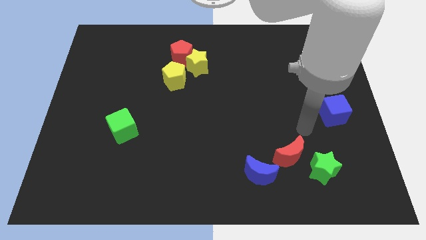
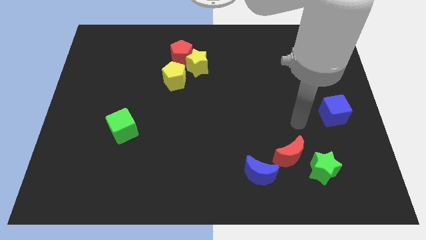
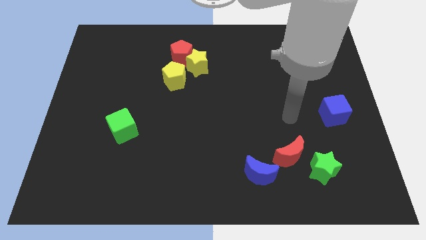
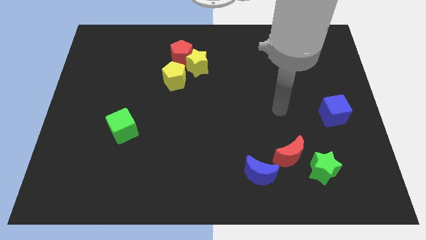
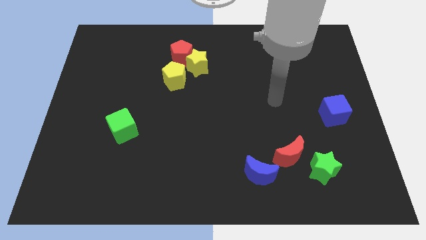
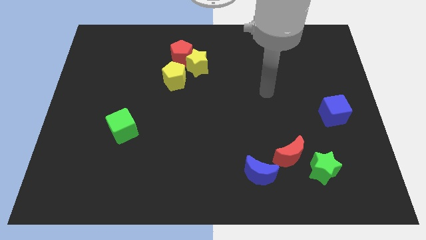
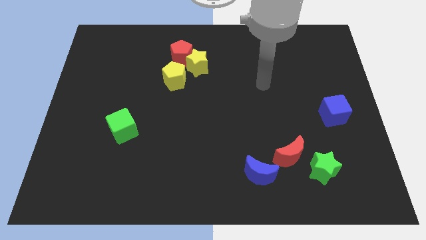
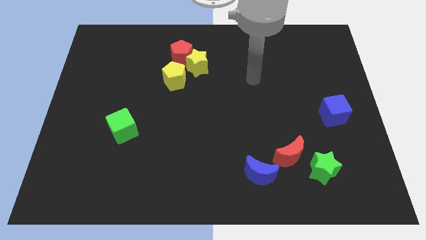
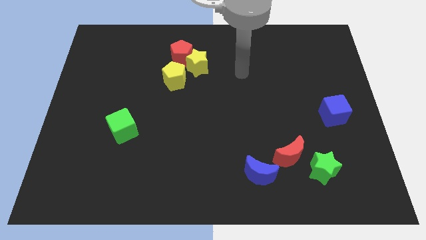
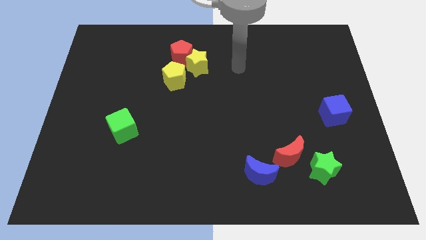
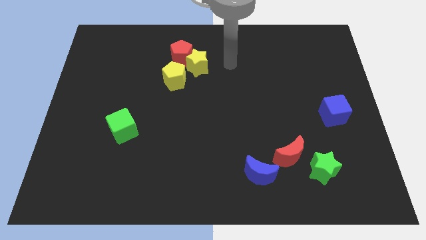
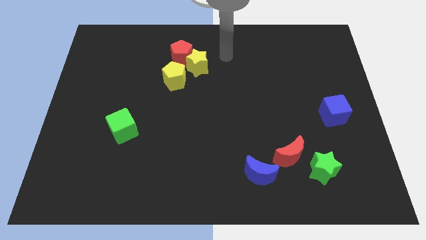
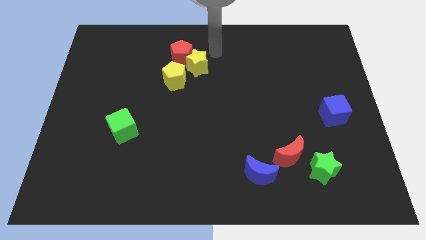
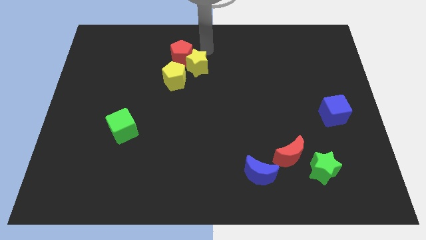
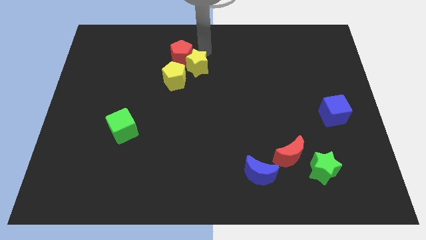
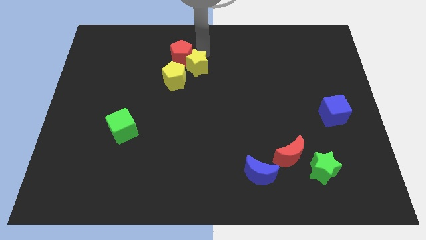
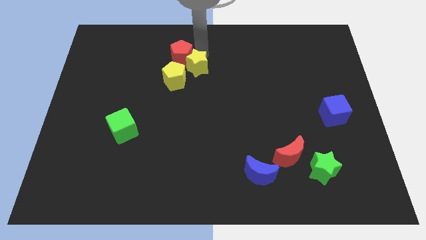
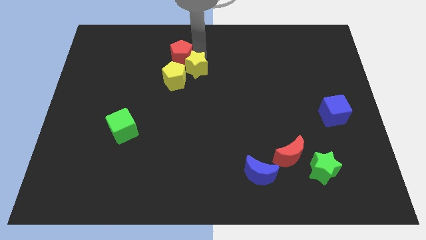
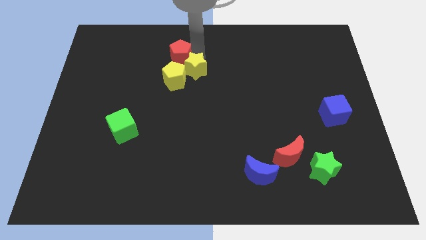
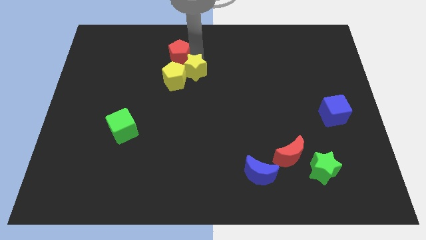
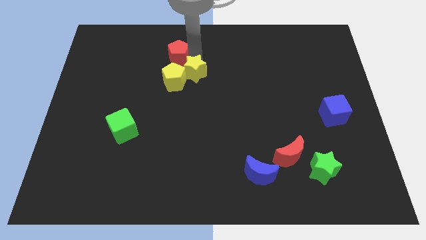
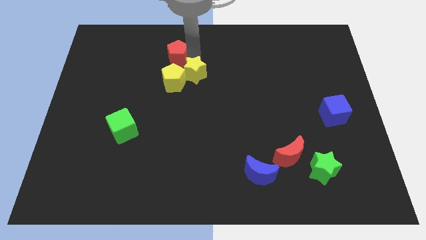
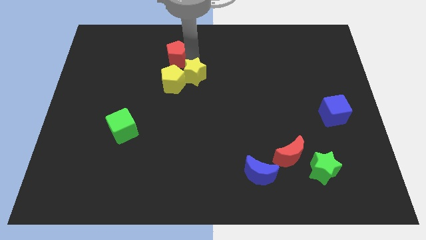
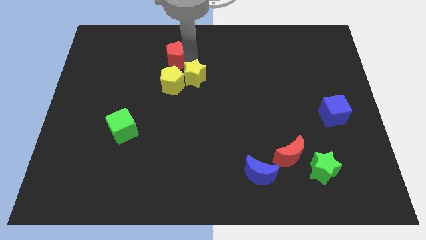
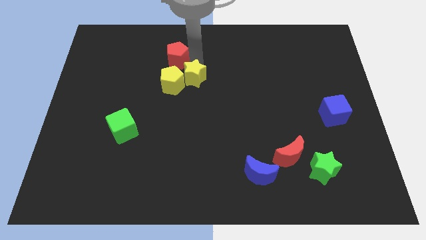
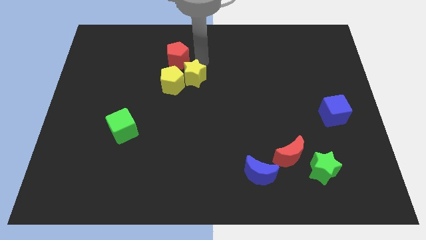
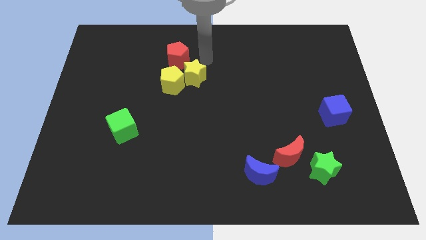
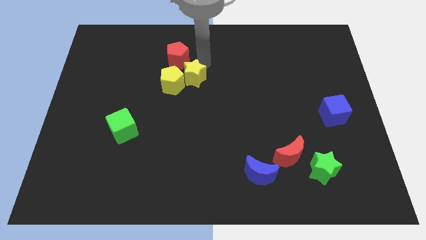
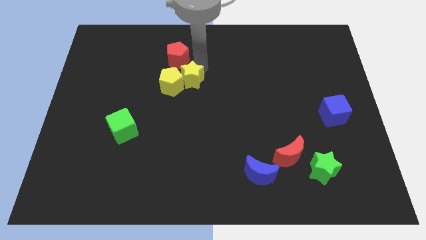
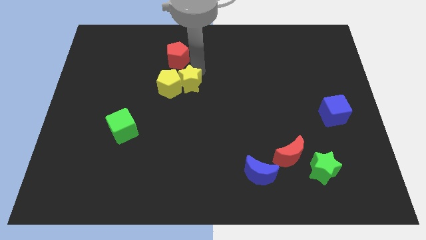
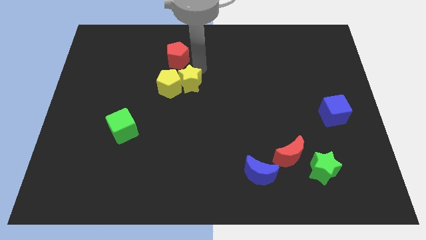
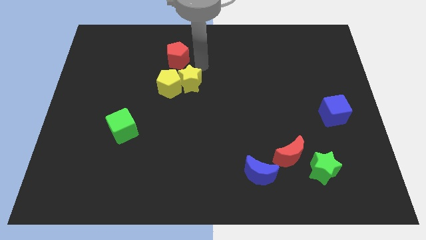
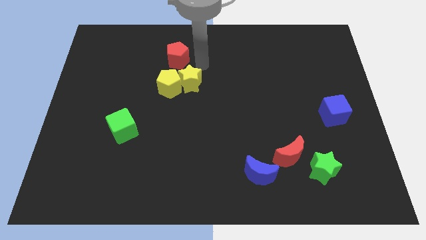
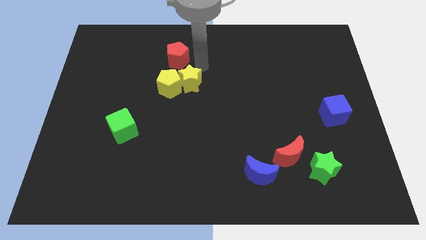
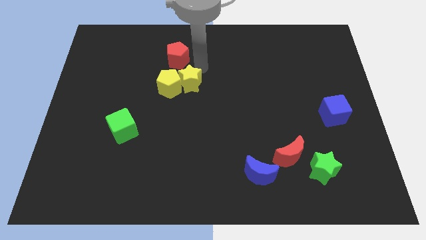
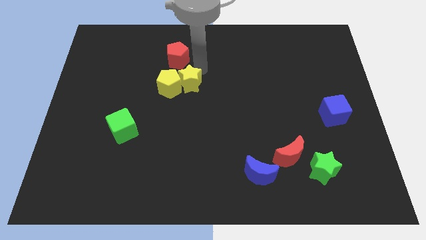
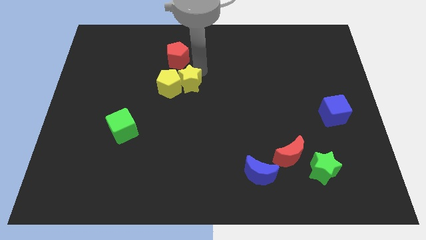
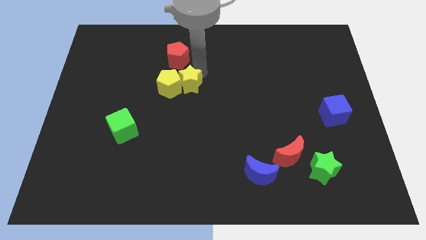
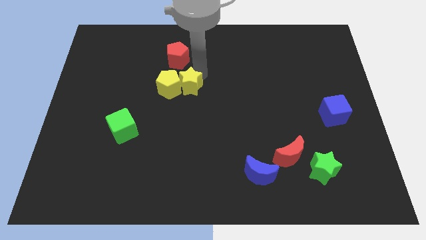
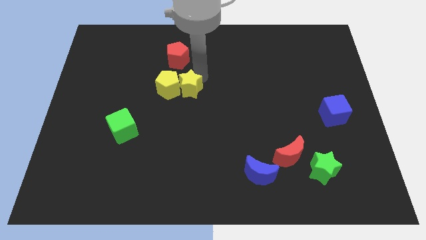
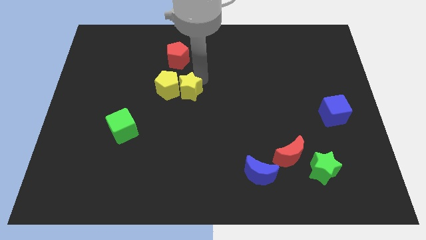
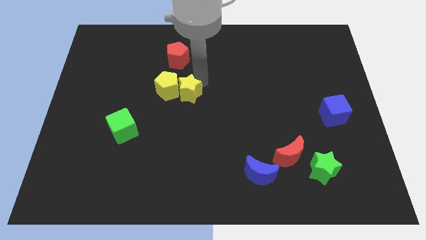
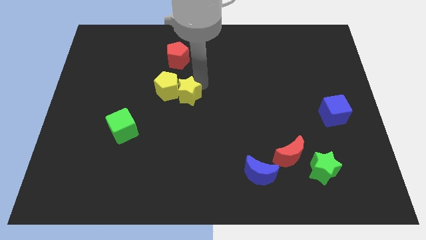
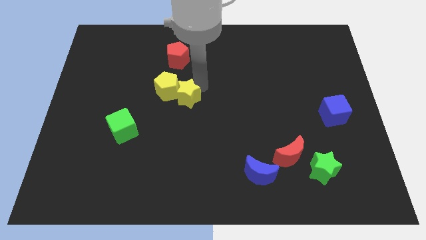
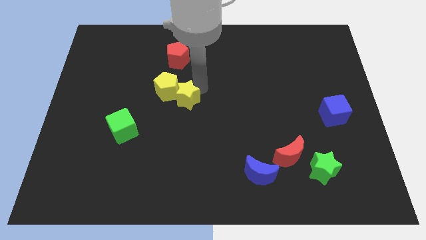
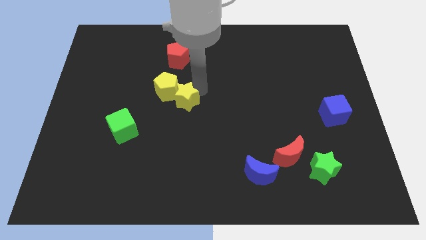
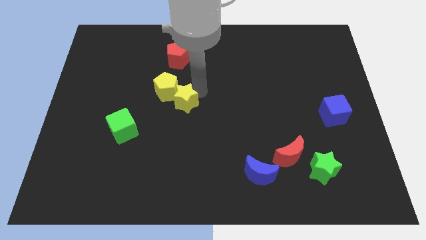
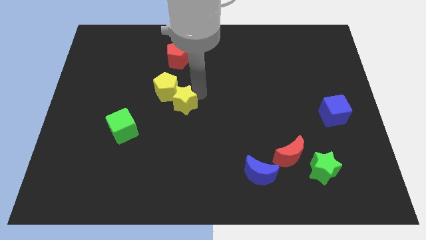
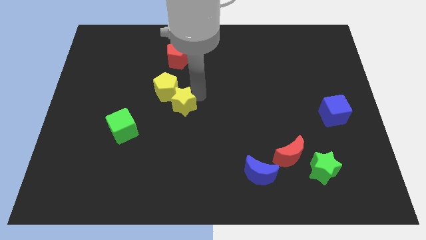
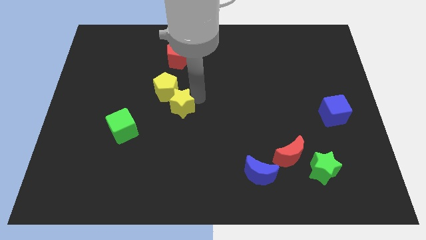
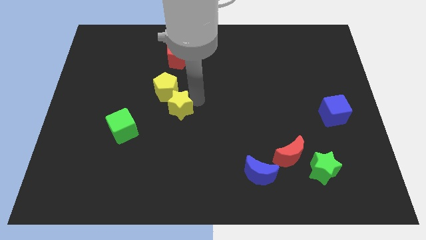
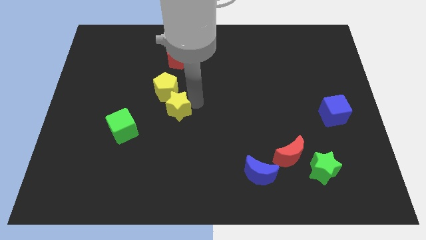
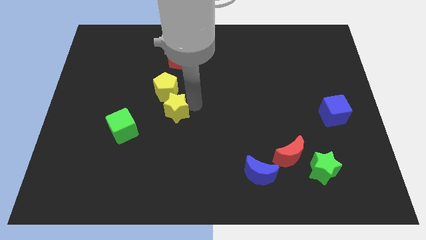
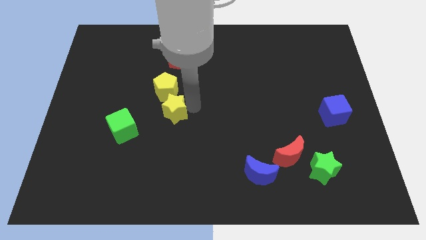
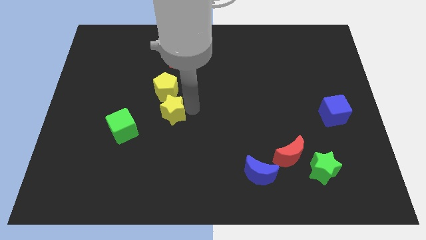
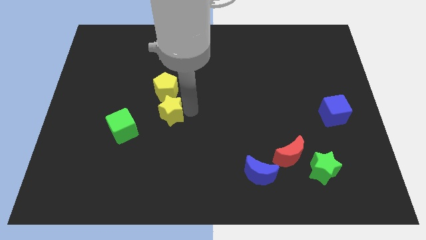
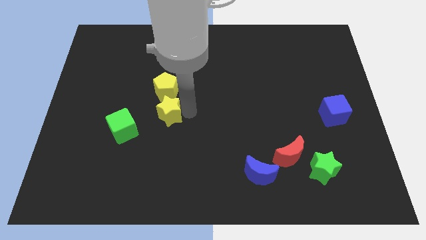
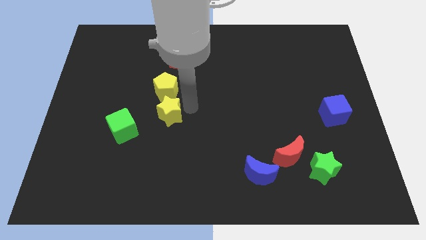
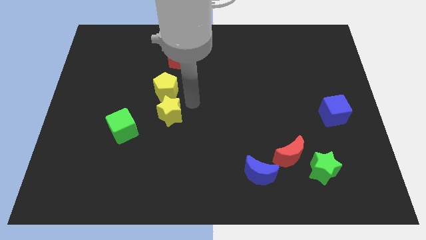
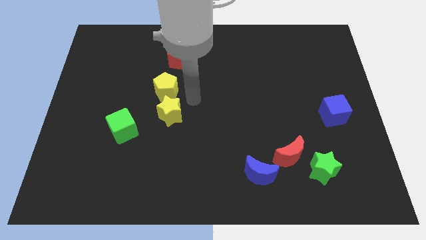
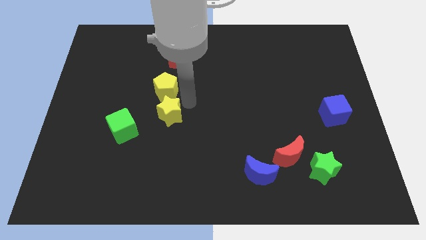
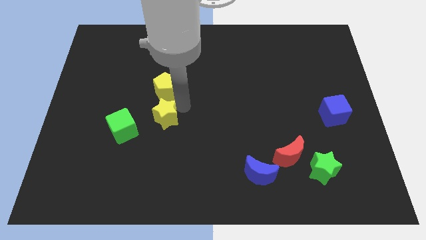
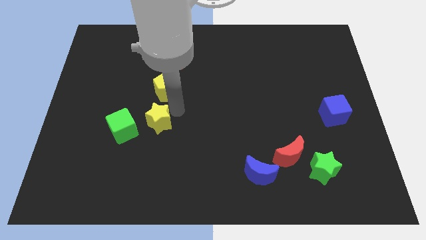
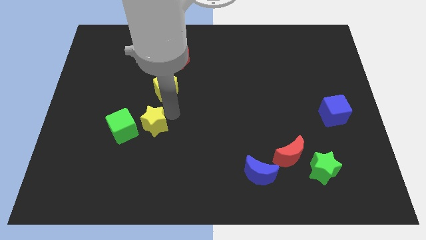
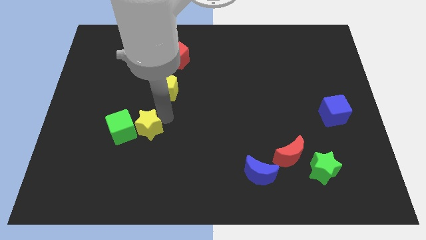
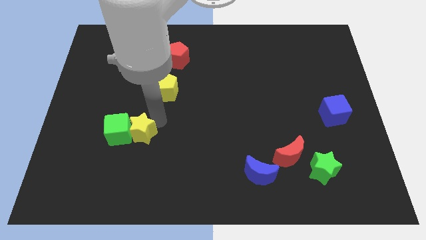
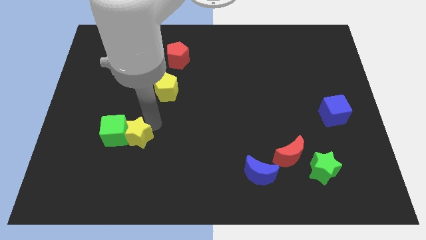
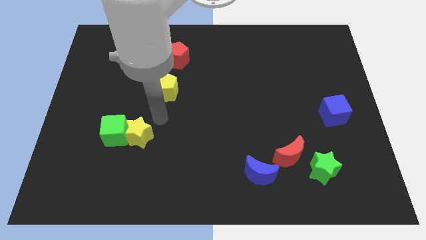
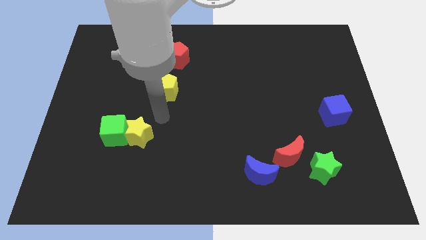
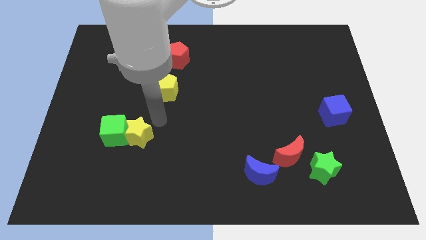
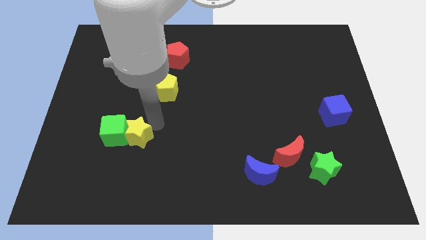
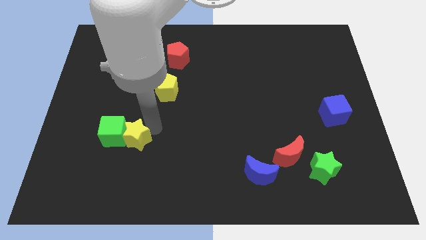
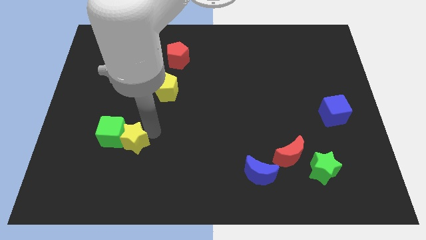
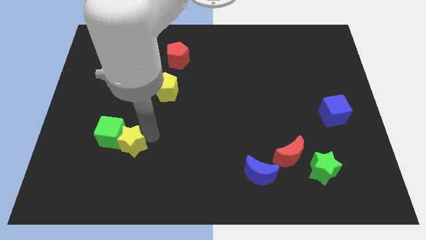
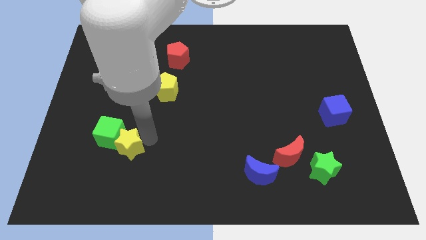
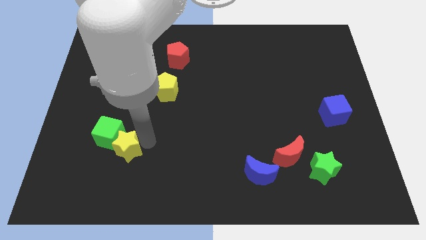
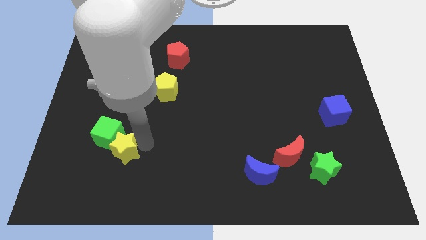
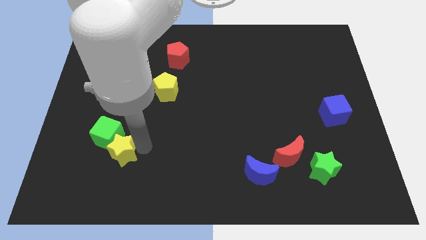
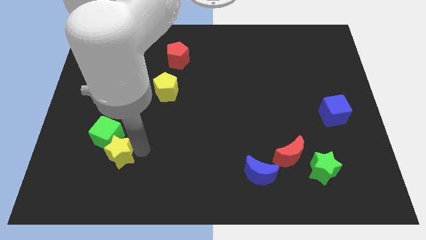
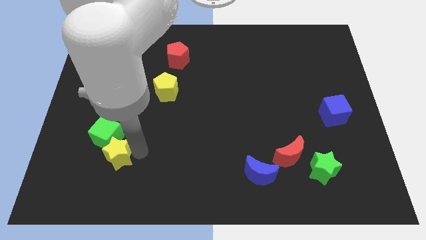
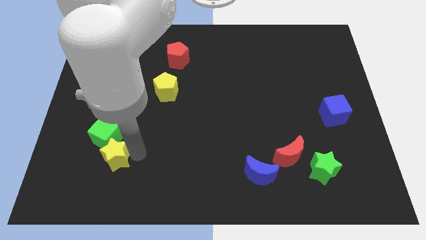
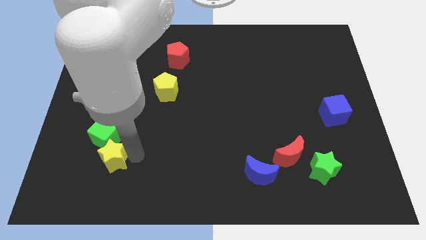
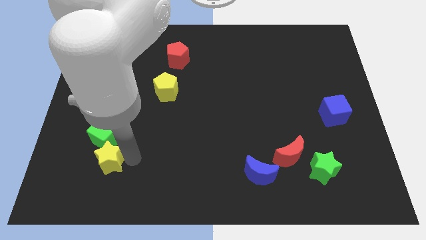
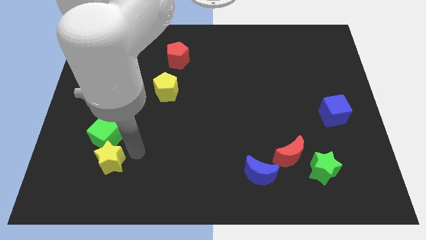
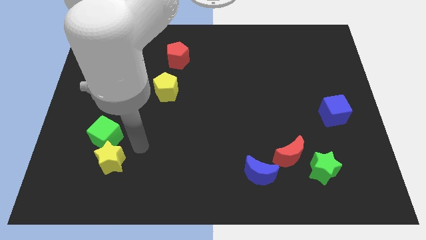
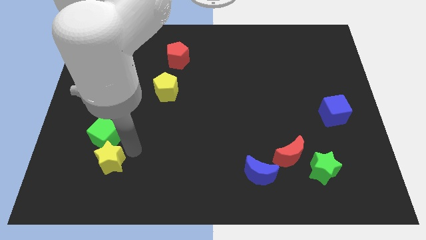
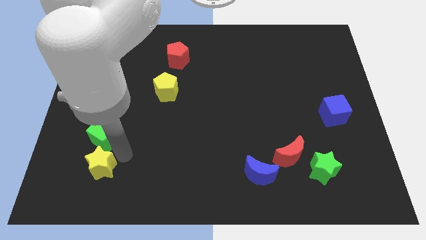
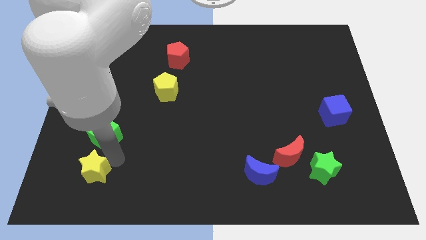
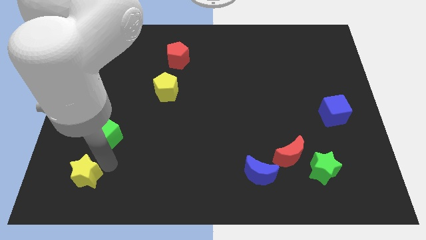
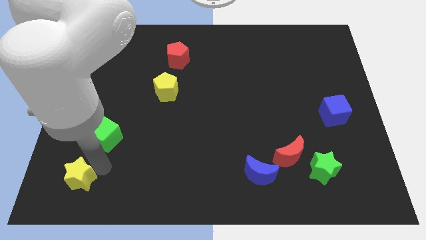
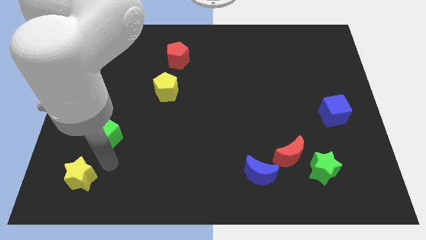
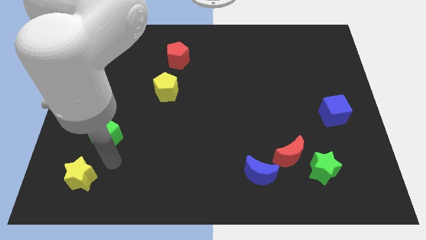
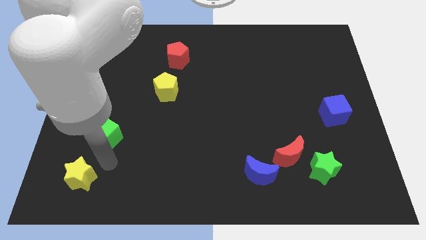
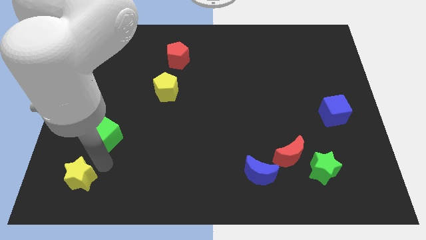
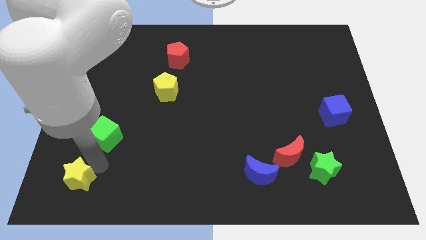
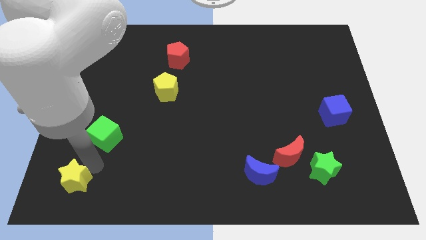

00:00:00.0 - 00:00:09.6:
put the yellow star to the lower left corner
